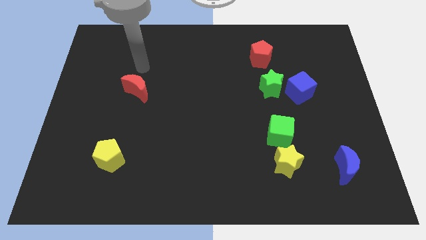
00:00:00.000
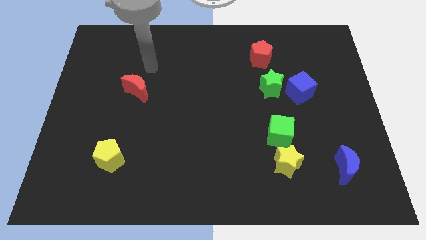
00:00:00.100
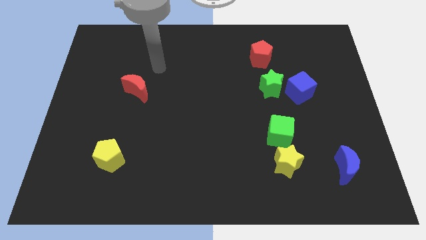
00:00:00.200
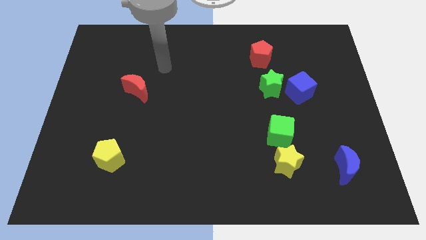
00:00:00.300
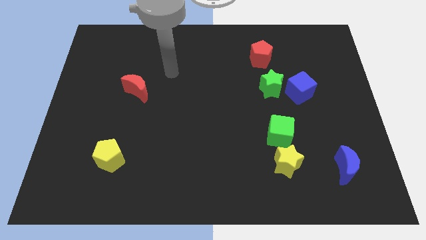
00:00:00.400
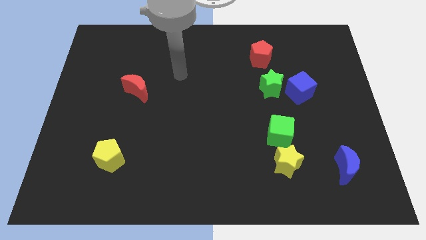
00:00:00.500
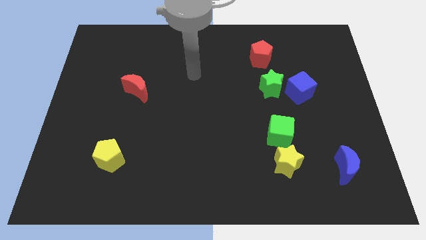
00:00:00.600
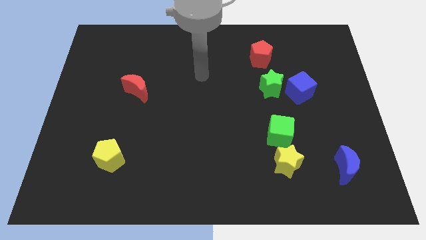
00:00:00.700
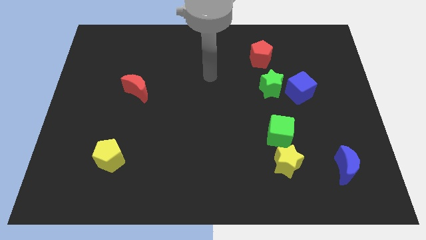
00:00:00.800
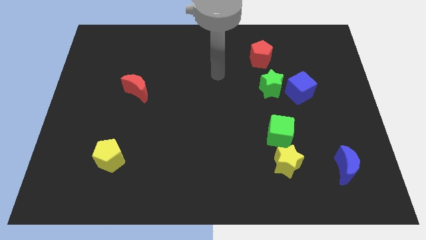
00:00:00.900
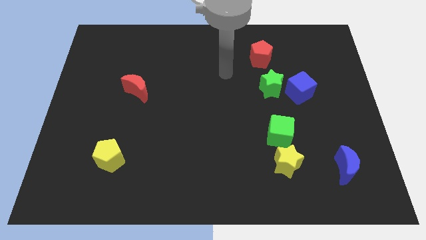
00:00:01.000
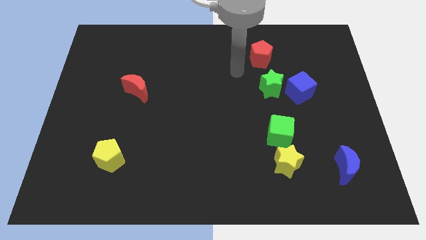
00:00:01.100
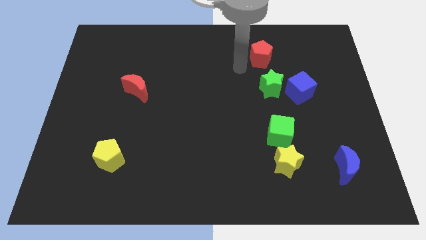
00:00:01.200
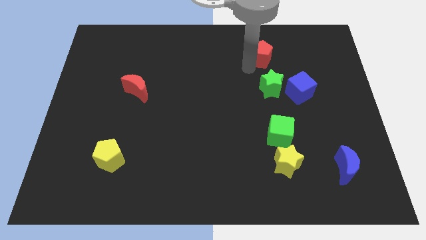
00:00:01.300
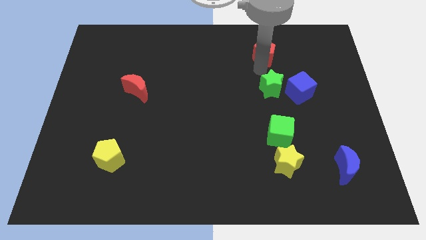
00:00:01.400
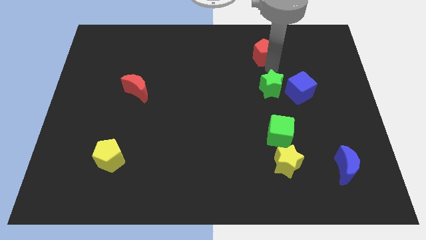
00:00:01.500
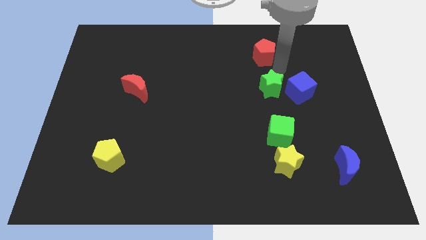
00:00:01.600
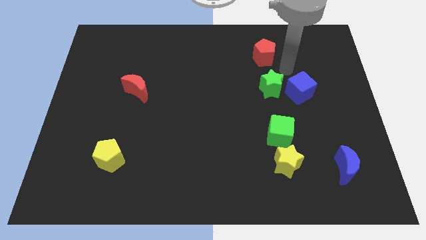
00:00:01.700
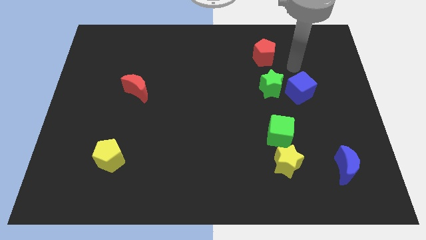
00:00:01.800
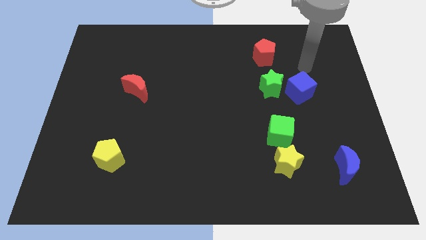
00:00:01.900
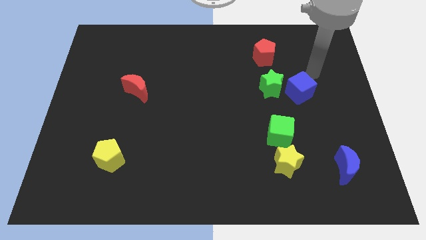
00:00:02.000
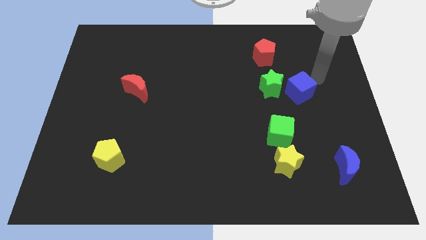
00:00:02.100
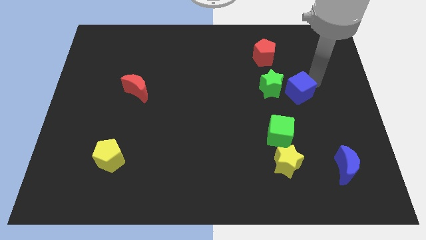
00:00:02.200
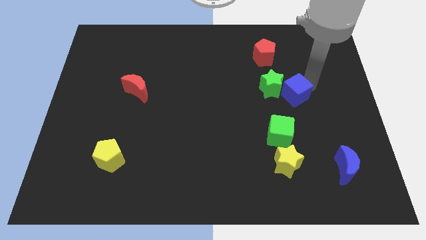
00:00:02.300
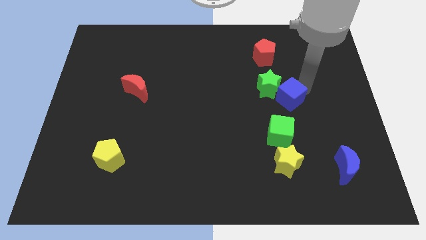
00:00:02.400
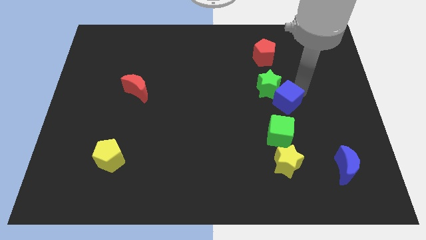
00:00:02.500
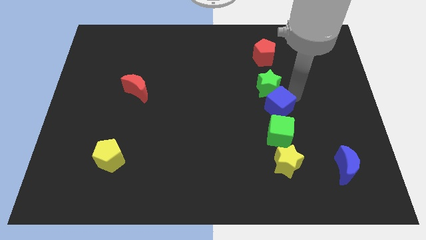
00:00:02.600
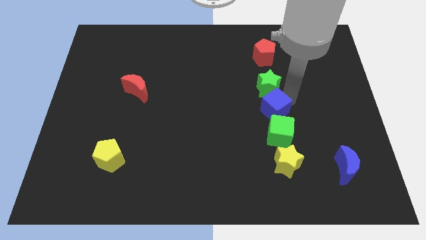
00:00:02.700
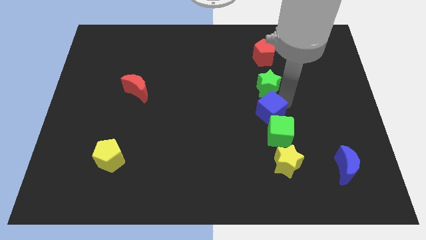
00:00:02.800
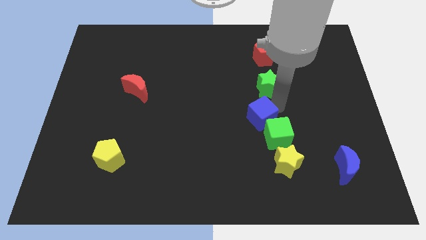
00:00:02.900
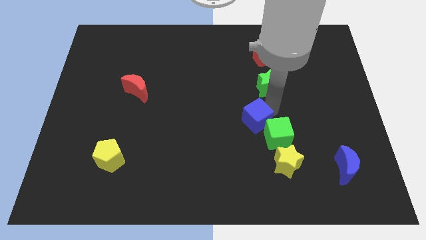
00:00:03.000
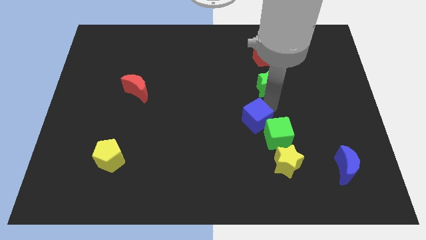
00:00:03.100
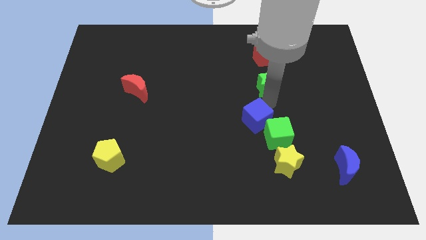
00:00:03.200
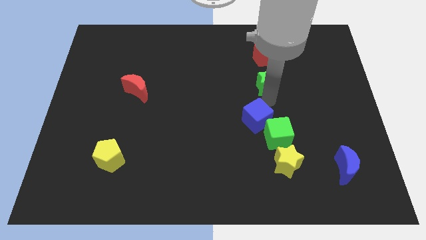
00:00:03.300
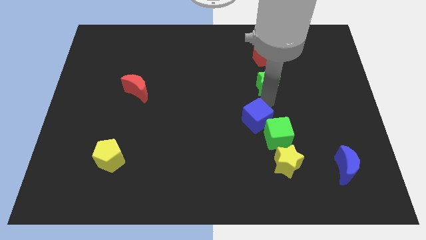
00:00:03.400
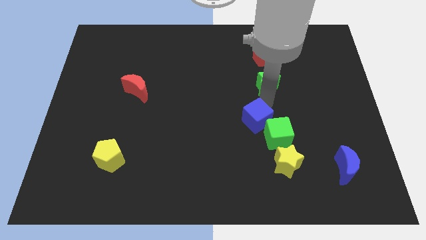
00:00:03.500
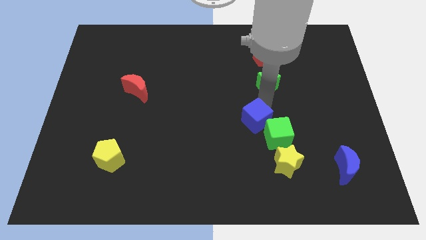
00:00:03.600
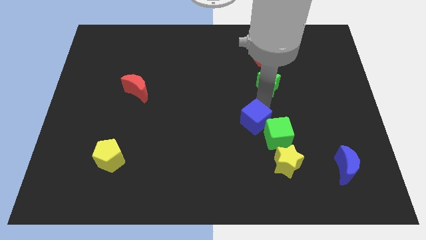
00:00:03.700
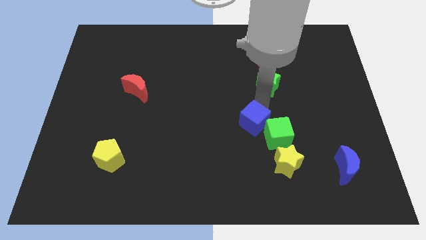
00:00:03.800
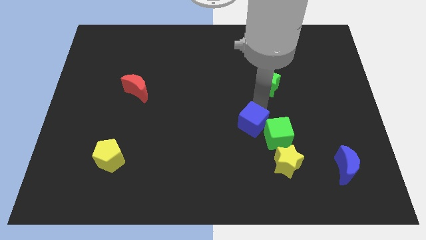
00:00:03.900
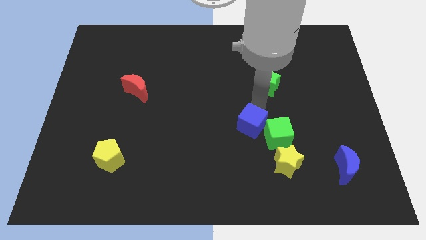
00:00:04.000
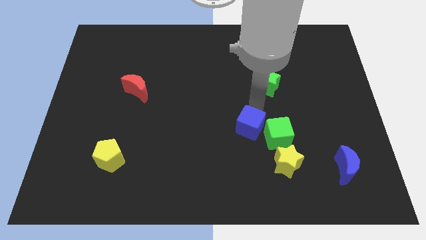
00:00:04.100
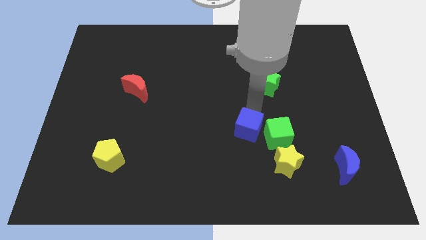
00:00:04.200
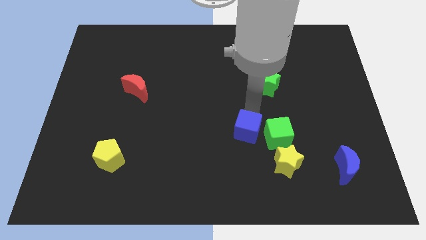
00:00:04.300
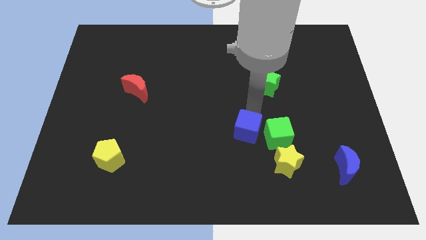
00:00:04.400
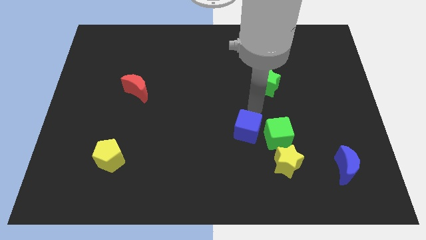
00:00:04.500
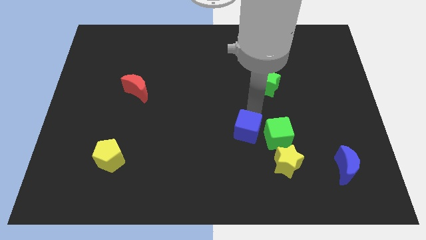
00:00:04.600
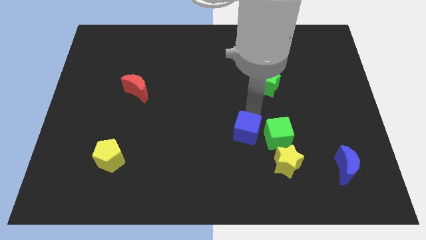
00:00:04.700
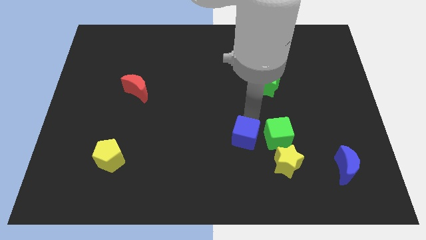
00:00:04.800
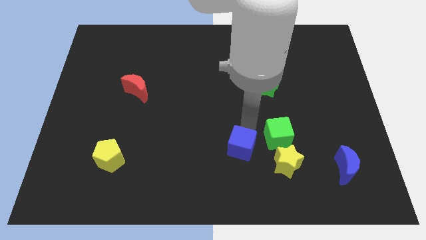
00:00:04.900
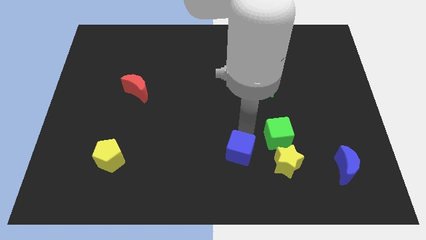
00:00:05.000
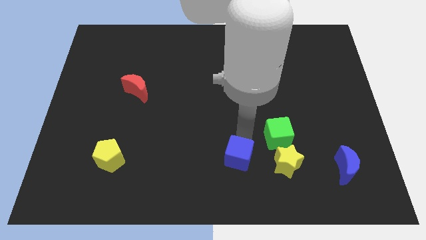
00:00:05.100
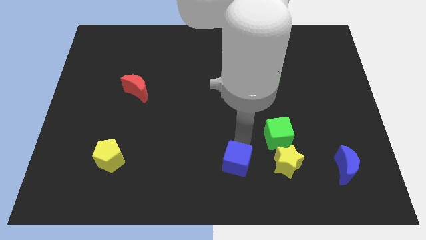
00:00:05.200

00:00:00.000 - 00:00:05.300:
slide the blue cube to the bottom

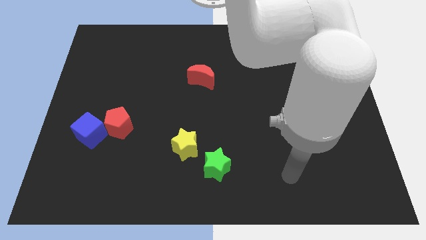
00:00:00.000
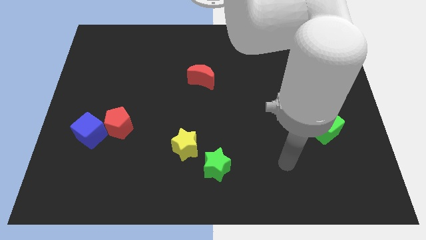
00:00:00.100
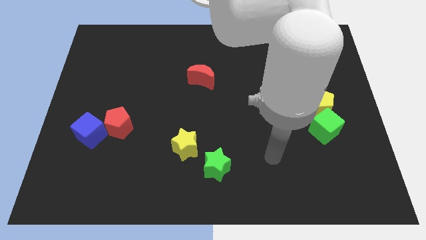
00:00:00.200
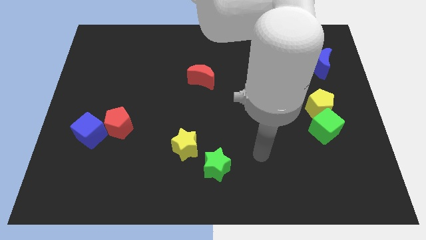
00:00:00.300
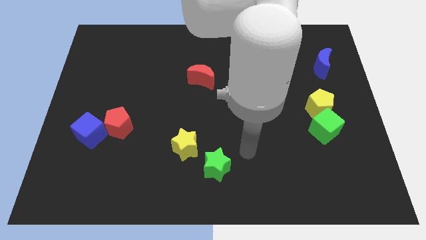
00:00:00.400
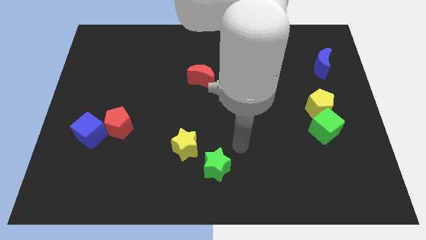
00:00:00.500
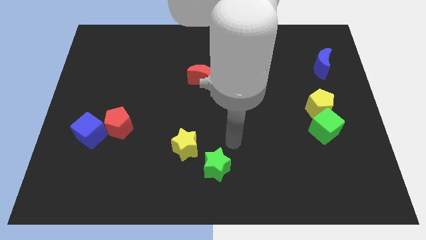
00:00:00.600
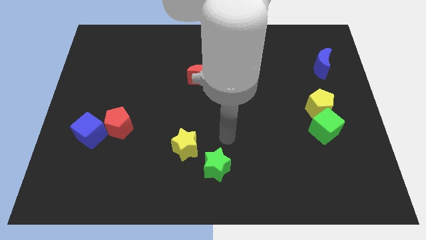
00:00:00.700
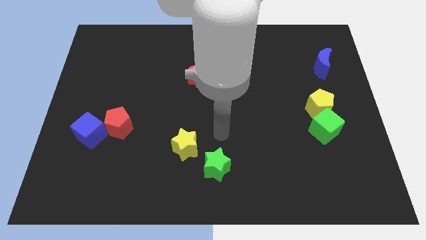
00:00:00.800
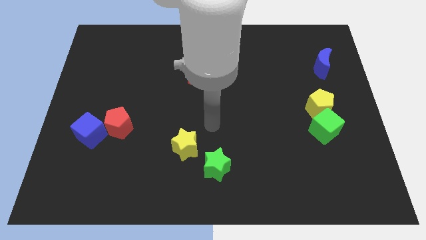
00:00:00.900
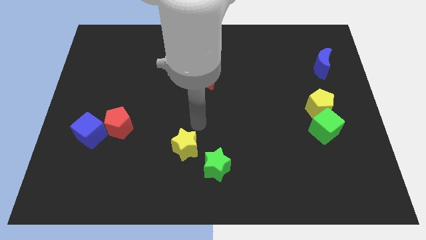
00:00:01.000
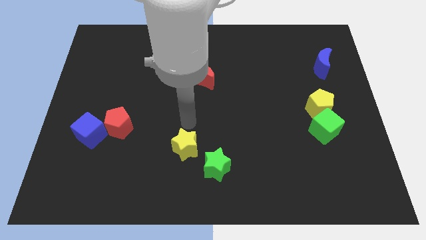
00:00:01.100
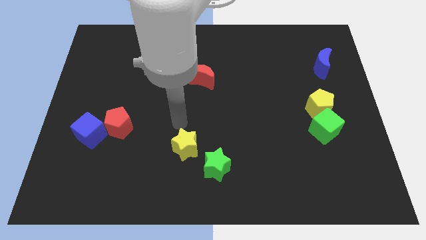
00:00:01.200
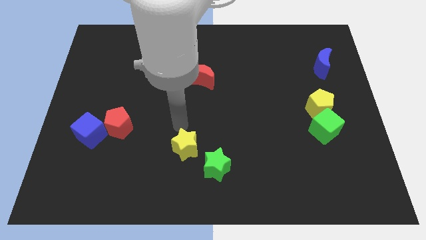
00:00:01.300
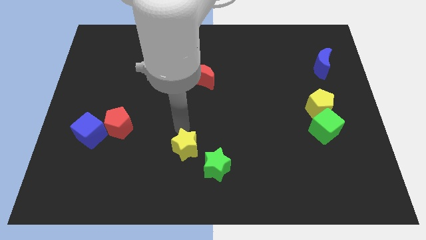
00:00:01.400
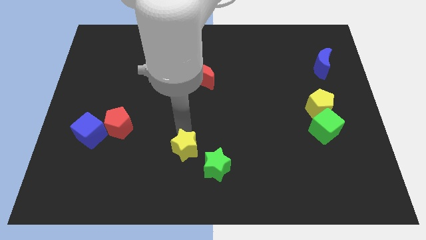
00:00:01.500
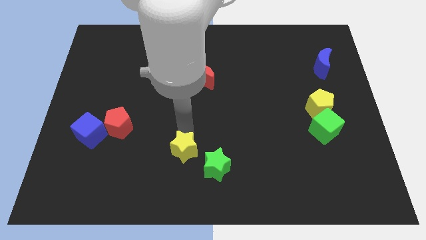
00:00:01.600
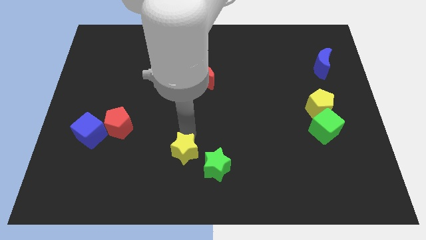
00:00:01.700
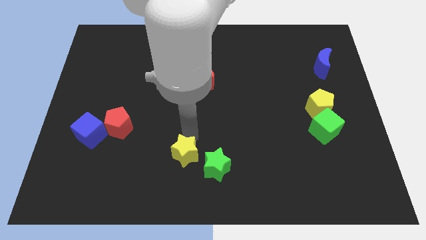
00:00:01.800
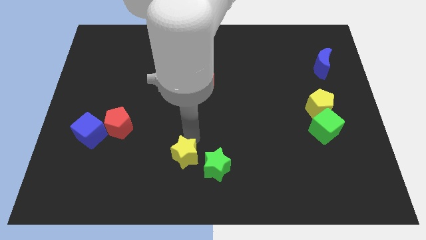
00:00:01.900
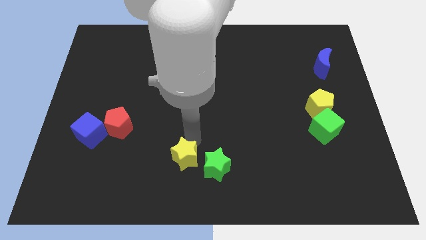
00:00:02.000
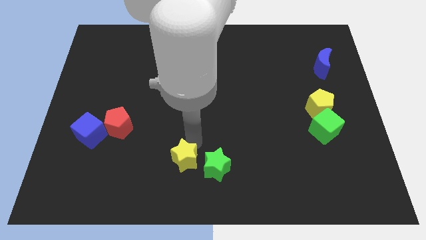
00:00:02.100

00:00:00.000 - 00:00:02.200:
move the yellow star to the bottom side
